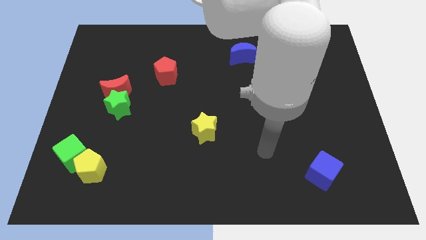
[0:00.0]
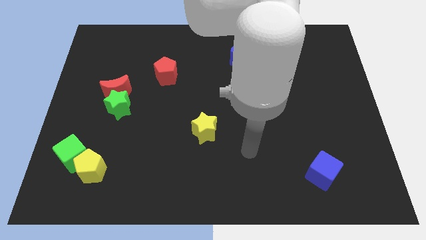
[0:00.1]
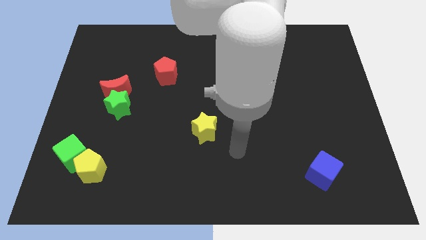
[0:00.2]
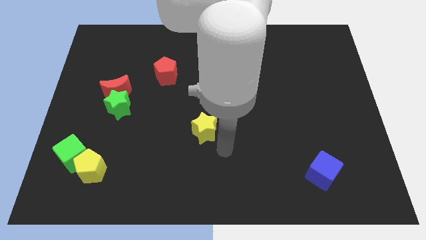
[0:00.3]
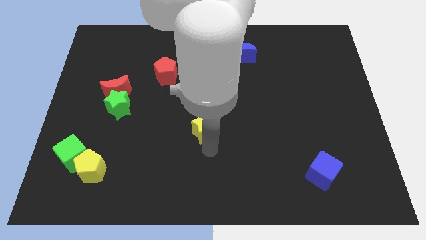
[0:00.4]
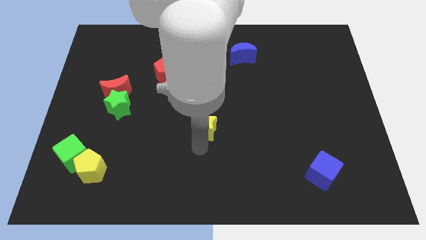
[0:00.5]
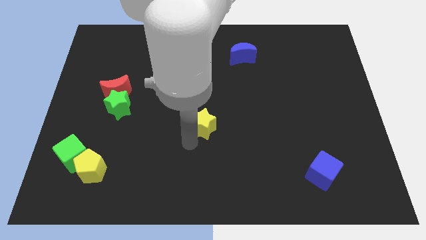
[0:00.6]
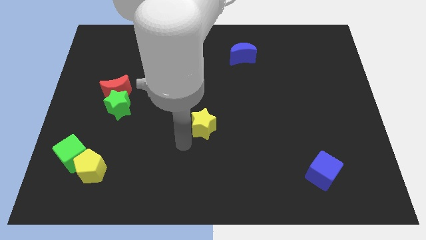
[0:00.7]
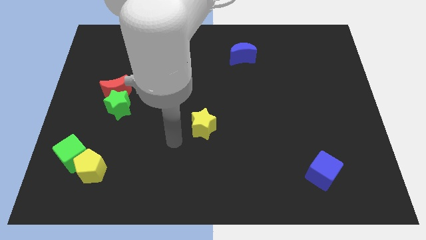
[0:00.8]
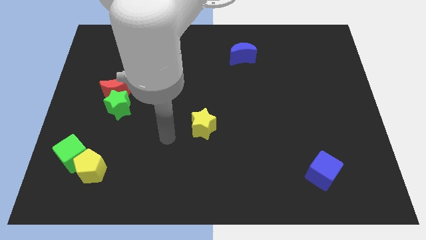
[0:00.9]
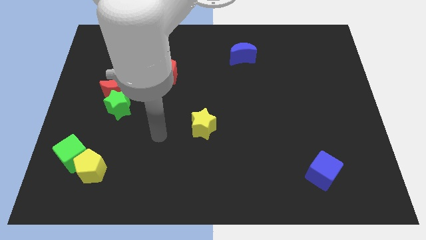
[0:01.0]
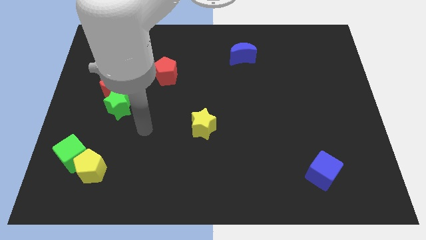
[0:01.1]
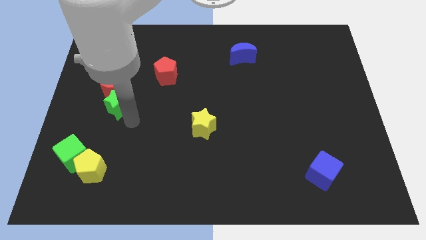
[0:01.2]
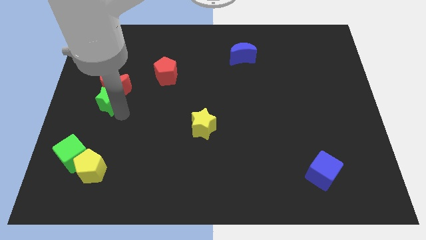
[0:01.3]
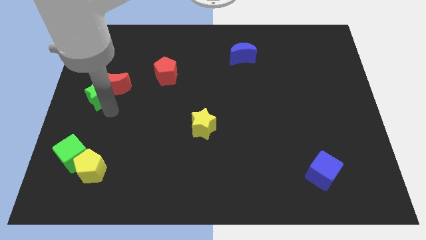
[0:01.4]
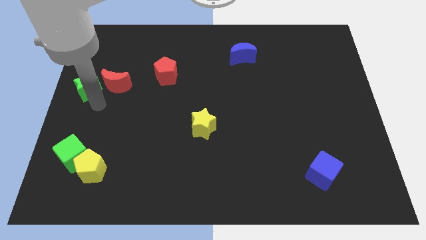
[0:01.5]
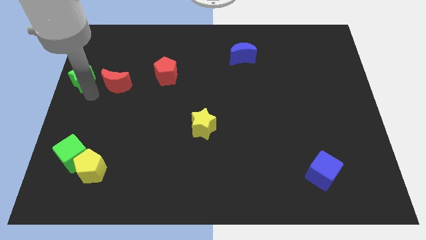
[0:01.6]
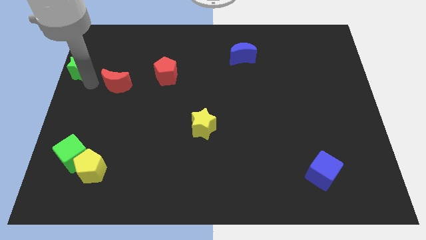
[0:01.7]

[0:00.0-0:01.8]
pull the red moon apart from the green star

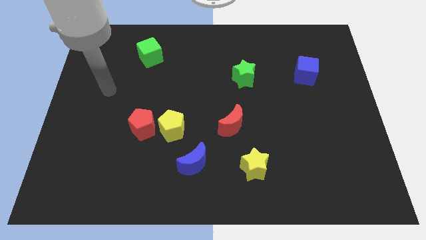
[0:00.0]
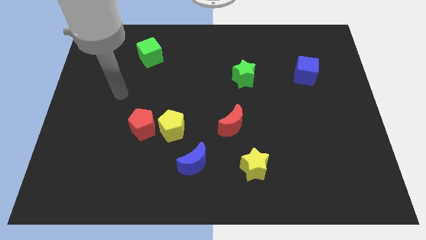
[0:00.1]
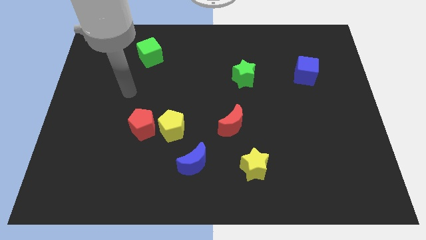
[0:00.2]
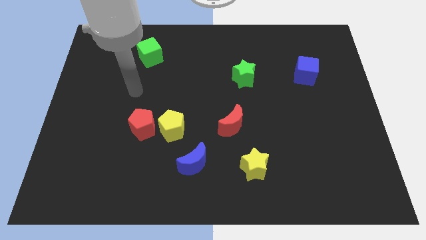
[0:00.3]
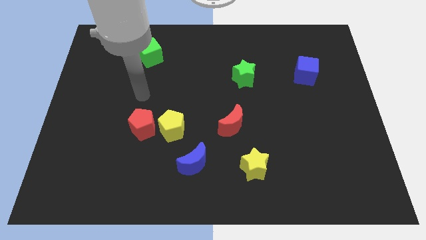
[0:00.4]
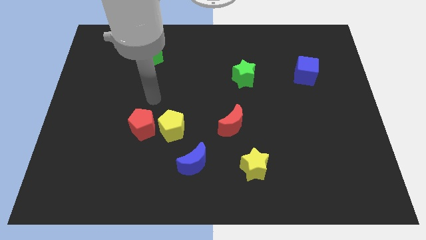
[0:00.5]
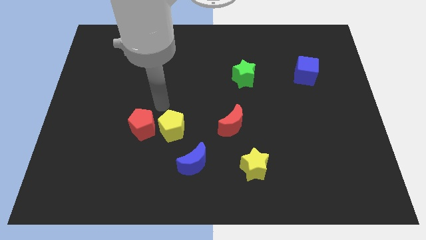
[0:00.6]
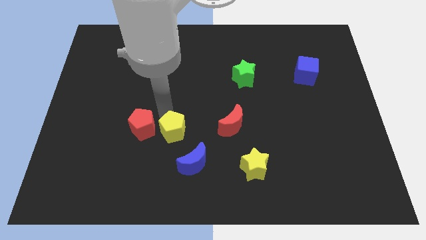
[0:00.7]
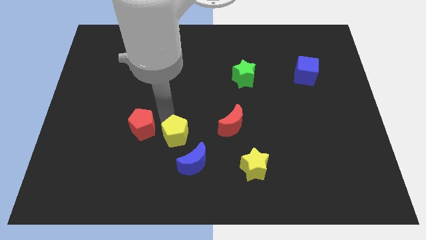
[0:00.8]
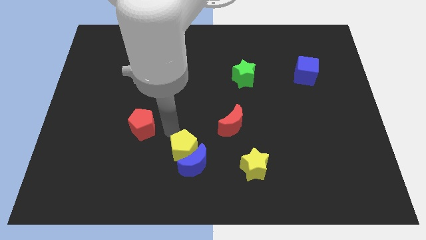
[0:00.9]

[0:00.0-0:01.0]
move the red pentagon away from the yellow pentagon

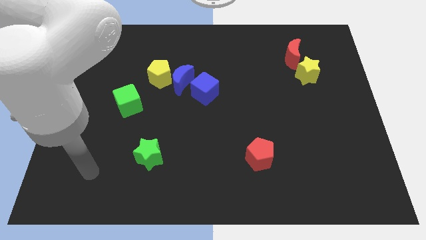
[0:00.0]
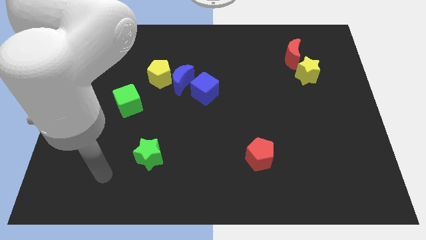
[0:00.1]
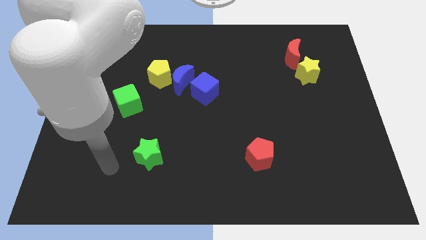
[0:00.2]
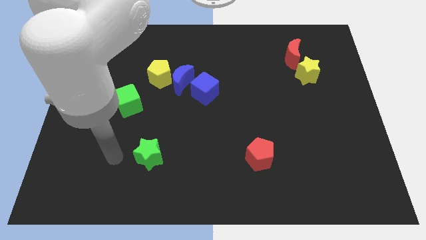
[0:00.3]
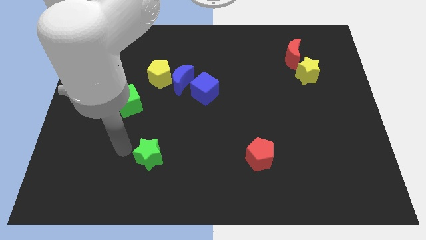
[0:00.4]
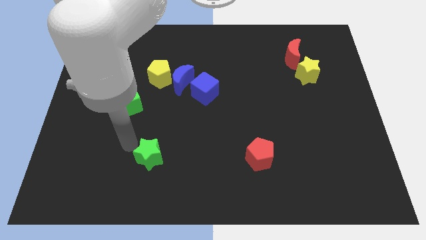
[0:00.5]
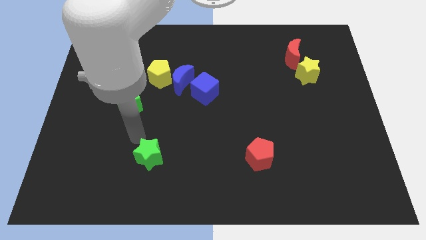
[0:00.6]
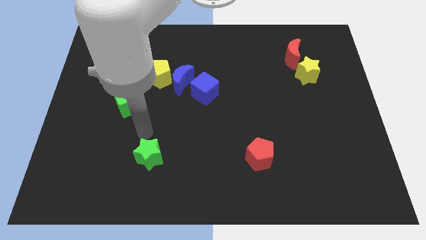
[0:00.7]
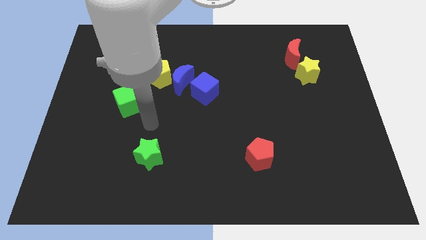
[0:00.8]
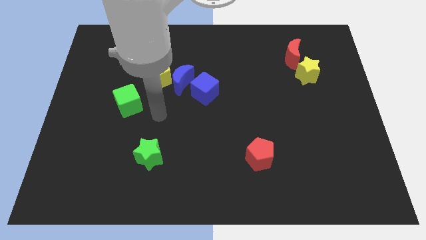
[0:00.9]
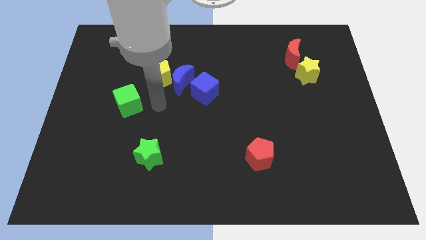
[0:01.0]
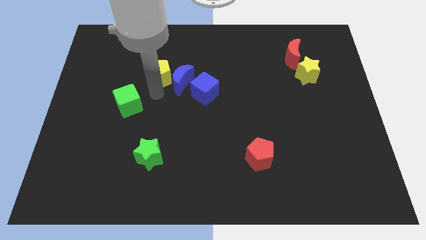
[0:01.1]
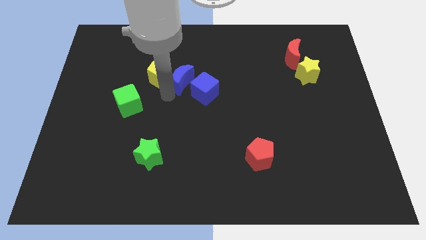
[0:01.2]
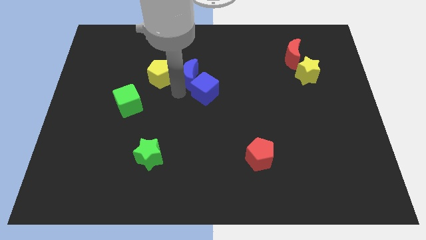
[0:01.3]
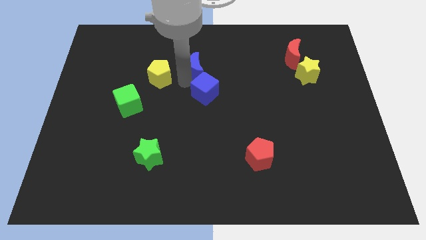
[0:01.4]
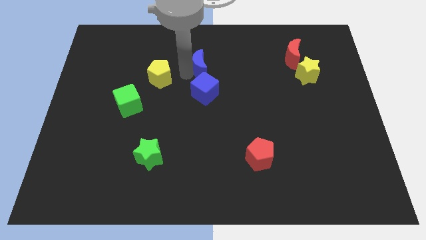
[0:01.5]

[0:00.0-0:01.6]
pull the yellow pentagon apart from the blue moon

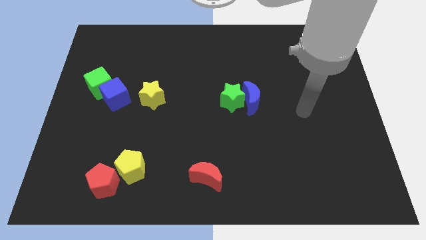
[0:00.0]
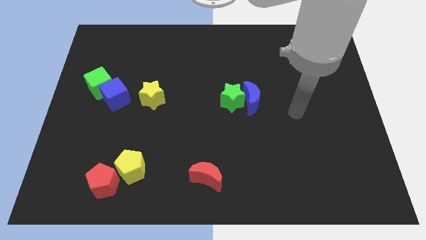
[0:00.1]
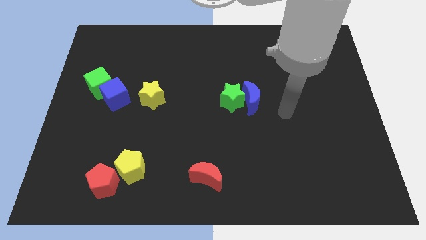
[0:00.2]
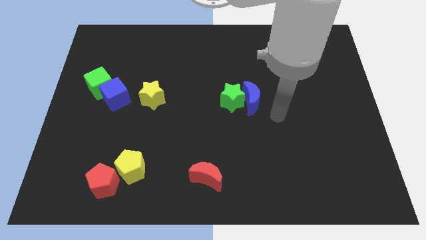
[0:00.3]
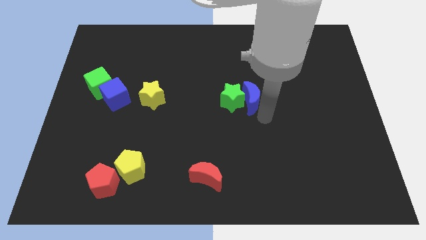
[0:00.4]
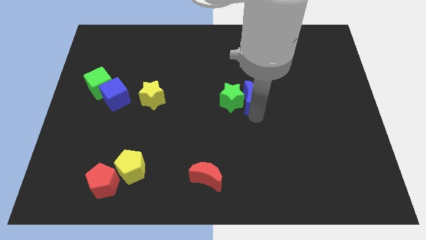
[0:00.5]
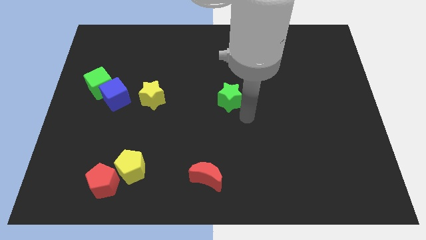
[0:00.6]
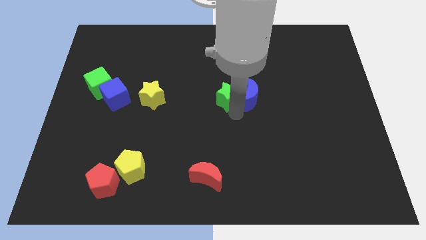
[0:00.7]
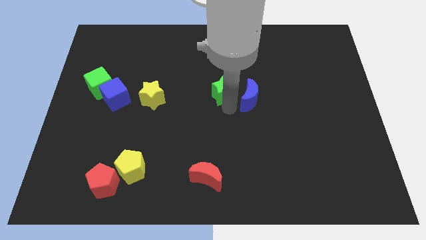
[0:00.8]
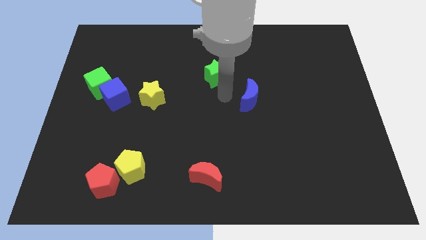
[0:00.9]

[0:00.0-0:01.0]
separate the blue moon from the green star

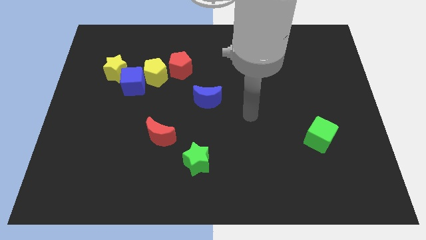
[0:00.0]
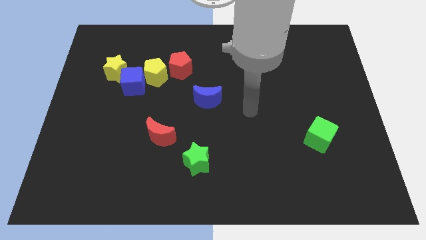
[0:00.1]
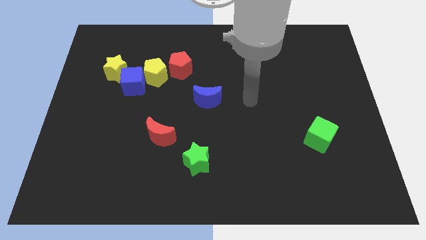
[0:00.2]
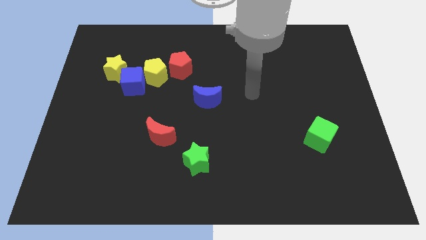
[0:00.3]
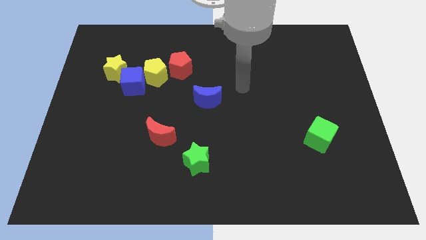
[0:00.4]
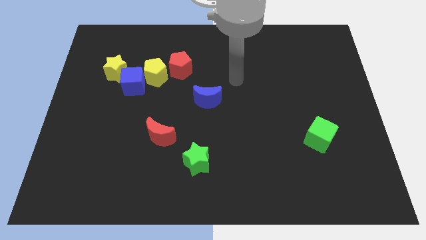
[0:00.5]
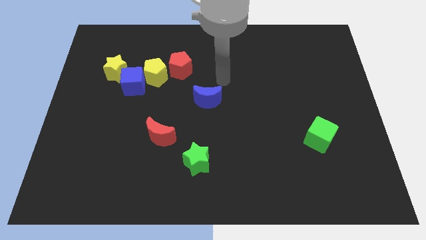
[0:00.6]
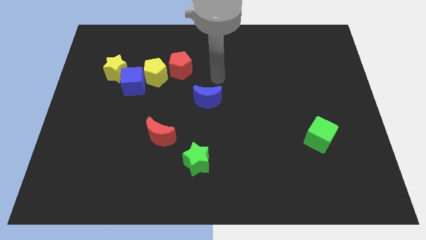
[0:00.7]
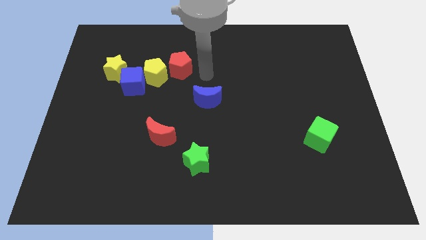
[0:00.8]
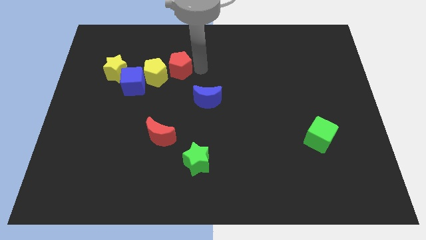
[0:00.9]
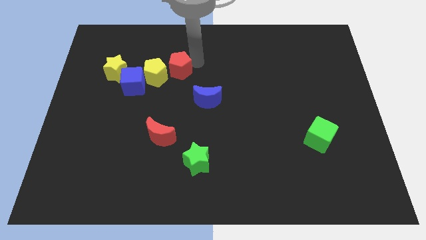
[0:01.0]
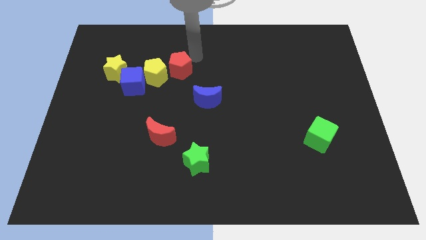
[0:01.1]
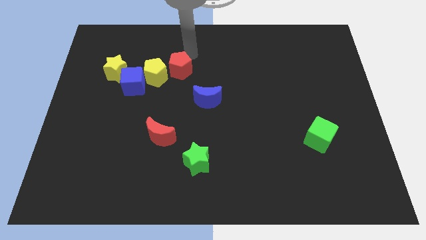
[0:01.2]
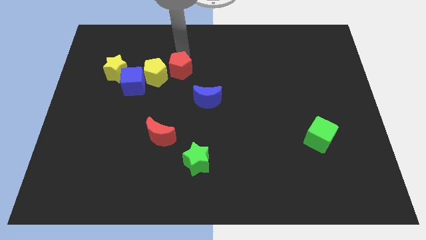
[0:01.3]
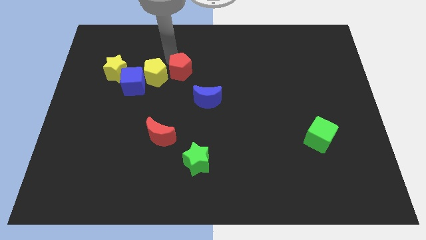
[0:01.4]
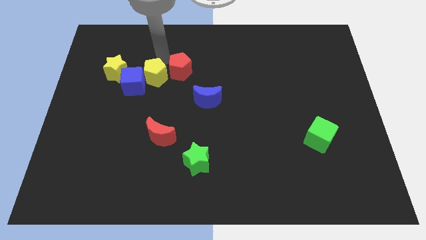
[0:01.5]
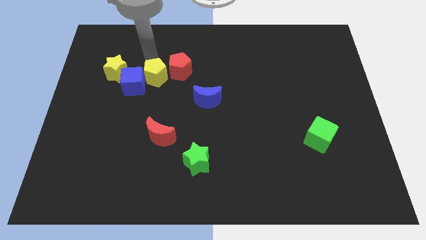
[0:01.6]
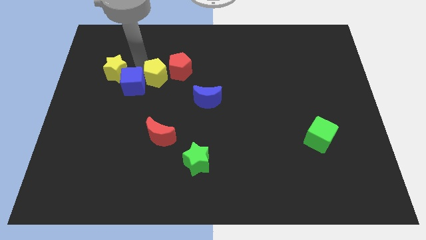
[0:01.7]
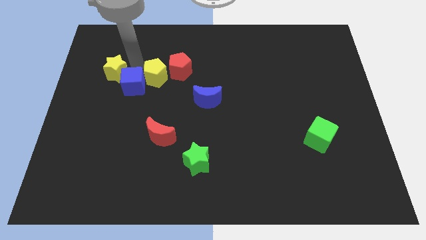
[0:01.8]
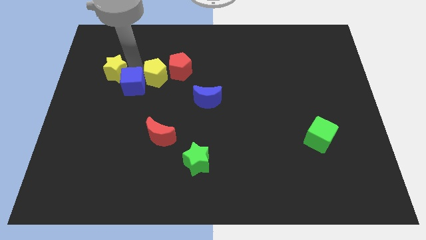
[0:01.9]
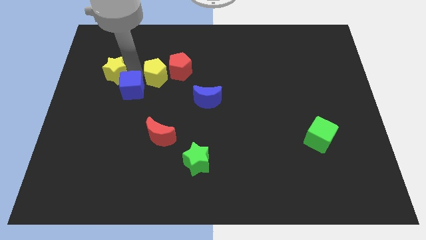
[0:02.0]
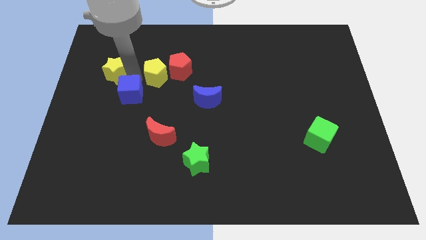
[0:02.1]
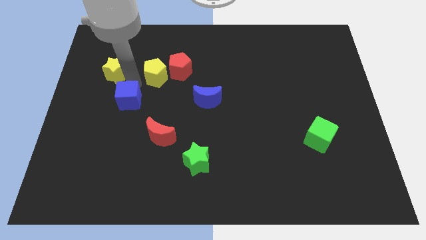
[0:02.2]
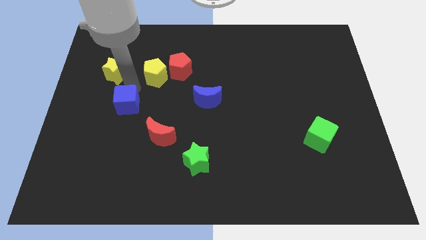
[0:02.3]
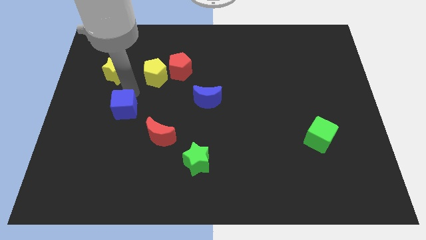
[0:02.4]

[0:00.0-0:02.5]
pull the blue cube apart from the yellow pentagon and yellow star

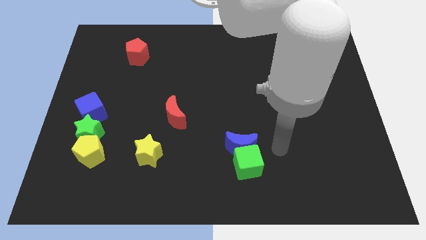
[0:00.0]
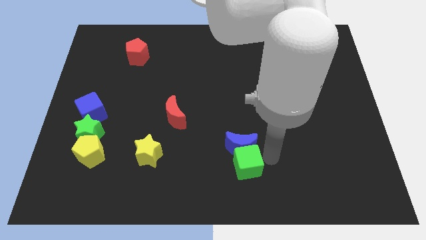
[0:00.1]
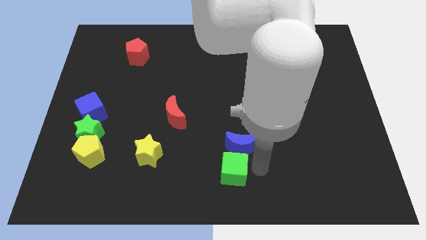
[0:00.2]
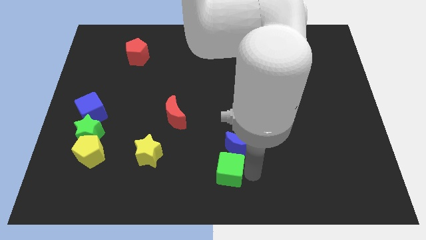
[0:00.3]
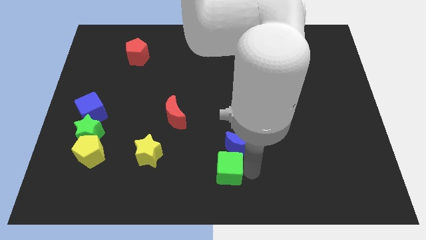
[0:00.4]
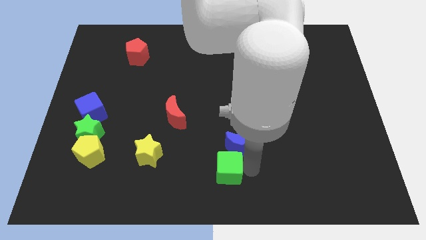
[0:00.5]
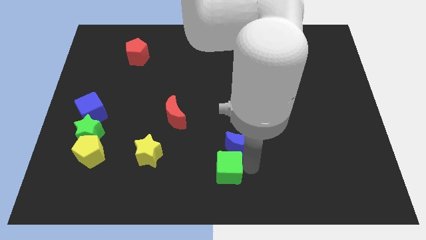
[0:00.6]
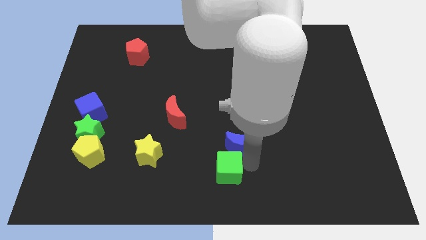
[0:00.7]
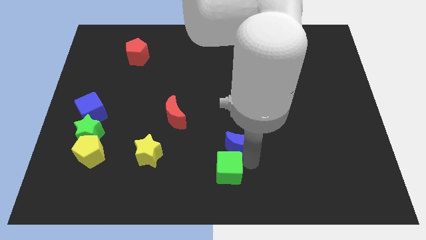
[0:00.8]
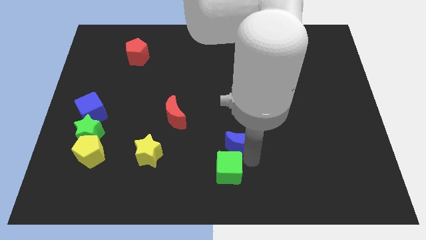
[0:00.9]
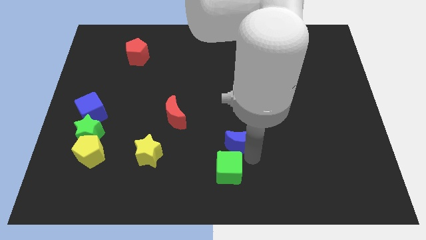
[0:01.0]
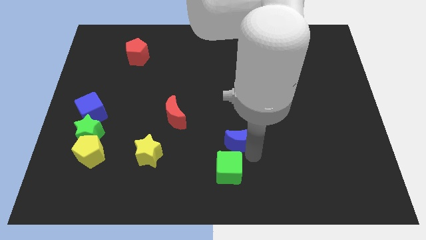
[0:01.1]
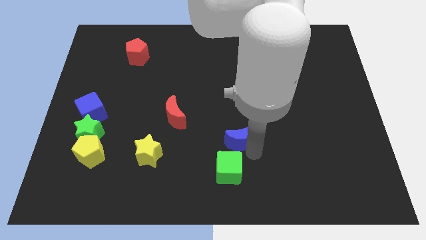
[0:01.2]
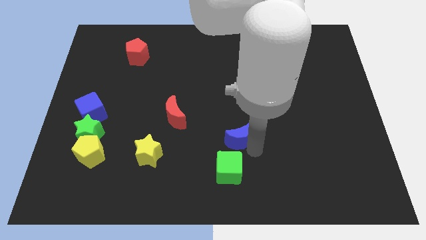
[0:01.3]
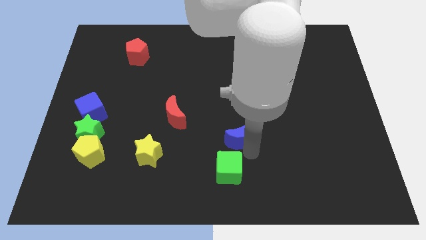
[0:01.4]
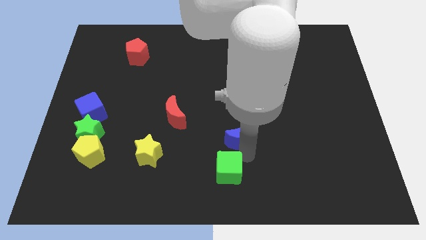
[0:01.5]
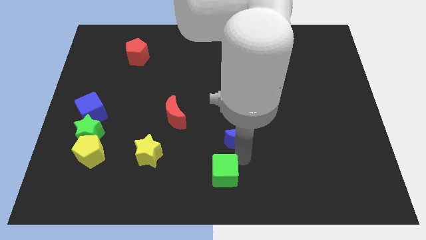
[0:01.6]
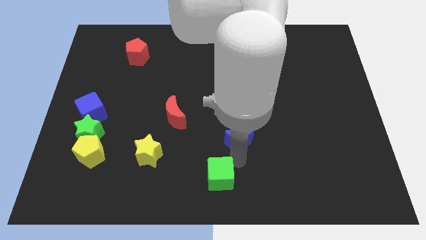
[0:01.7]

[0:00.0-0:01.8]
separate the blue moon from the green cube
